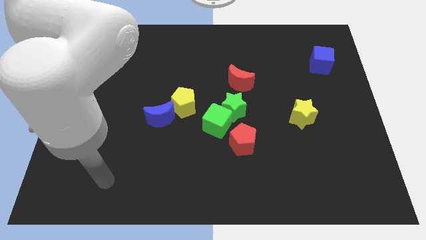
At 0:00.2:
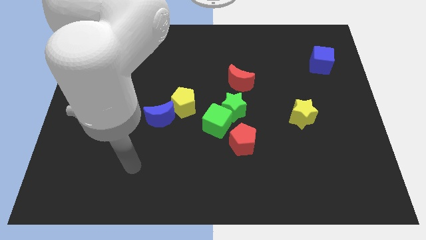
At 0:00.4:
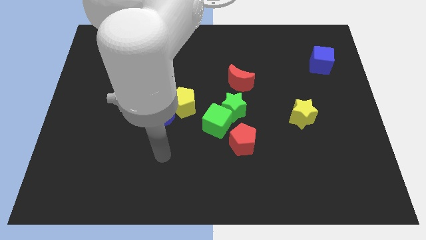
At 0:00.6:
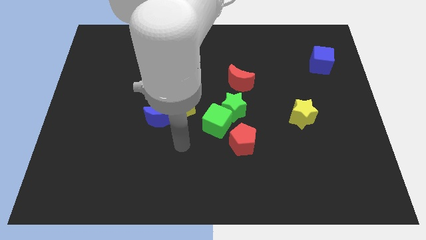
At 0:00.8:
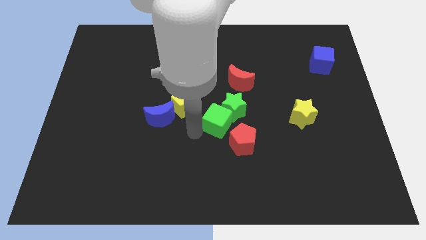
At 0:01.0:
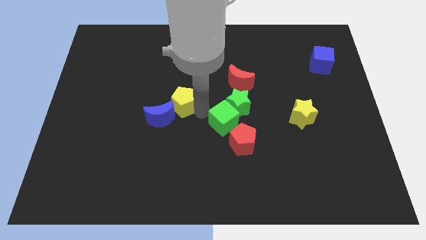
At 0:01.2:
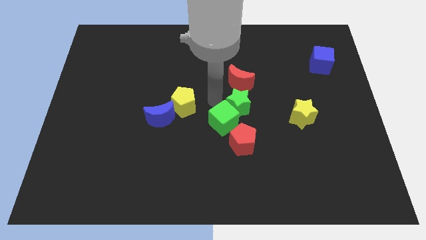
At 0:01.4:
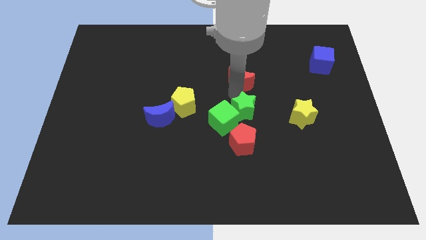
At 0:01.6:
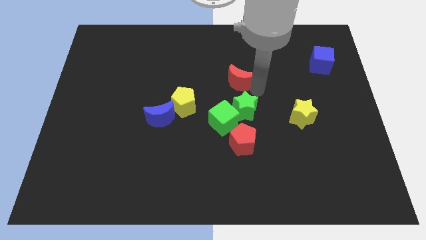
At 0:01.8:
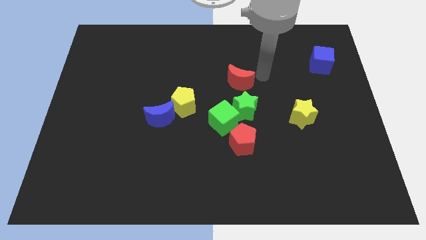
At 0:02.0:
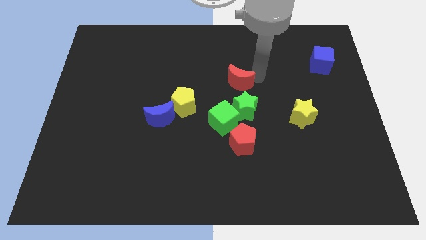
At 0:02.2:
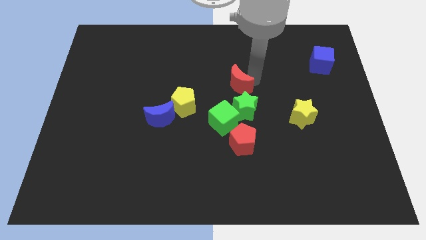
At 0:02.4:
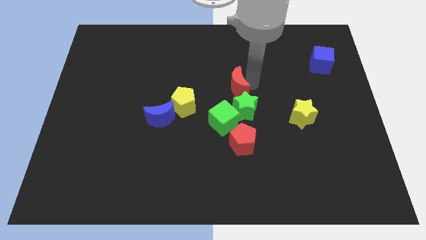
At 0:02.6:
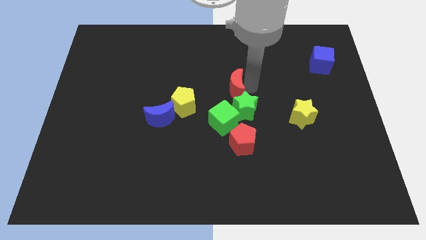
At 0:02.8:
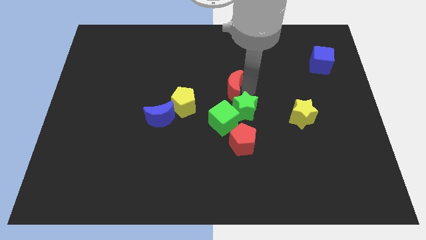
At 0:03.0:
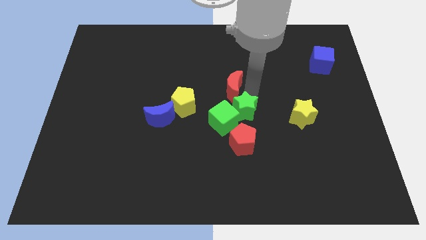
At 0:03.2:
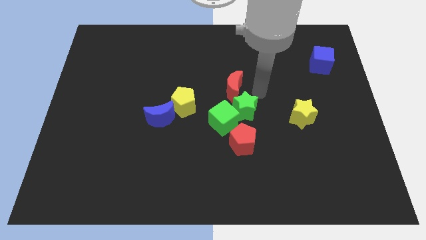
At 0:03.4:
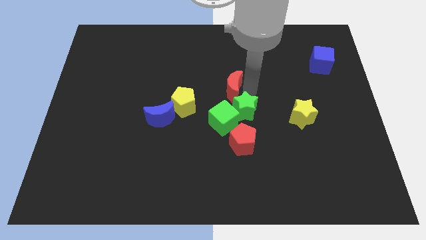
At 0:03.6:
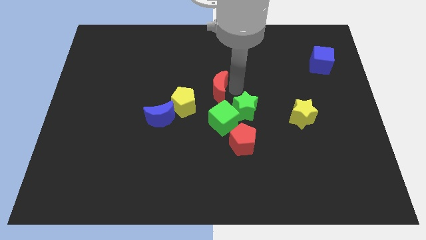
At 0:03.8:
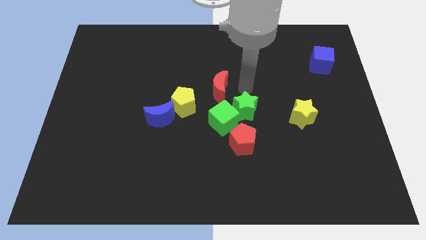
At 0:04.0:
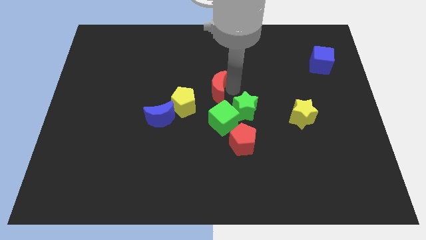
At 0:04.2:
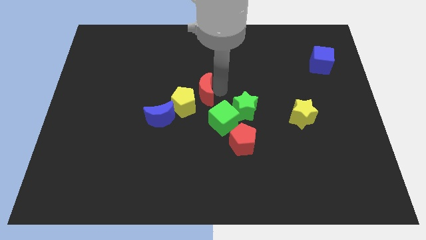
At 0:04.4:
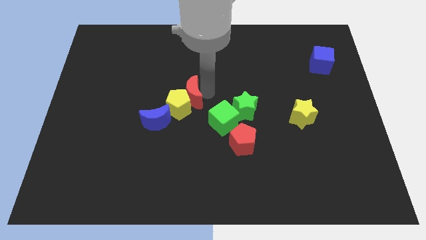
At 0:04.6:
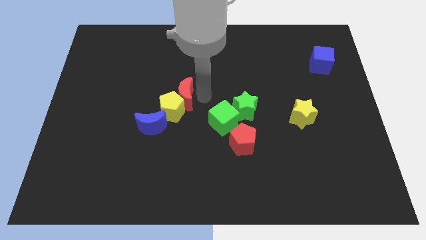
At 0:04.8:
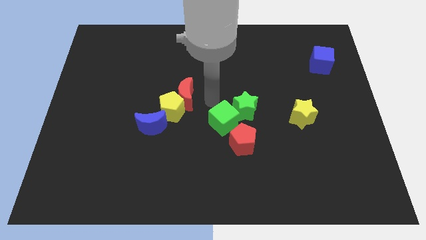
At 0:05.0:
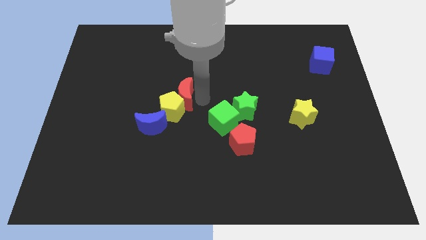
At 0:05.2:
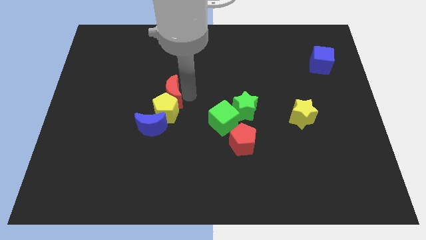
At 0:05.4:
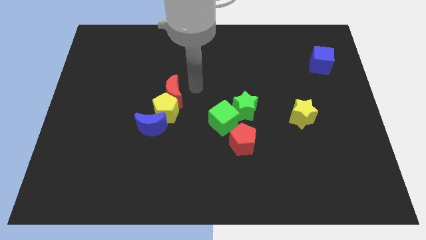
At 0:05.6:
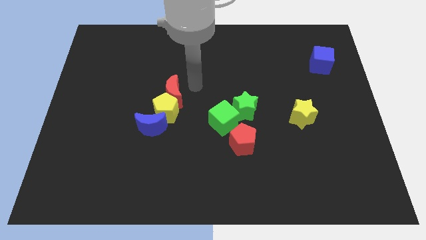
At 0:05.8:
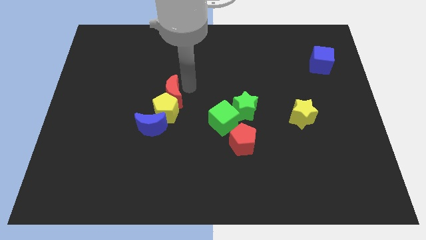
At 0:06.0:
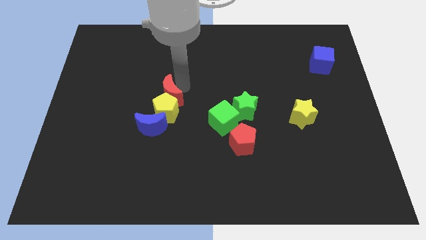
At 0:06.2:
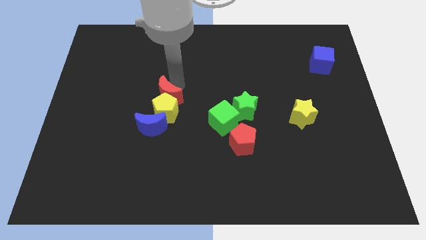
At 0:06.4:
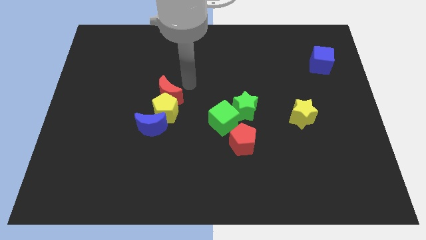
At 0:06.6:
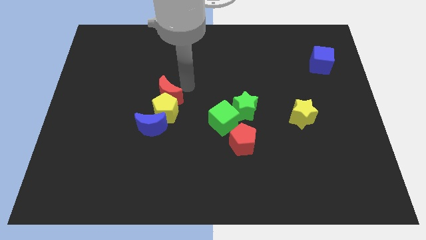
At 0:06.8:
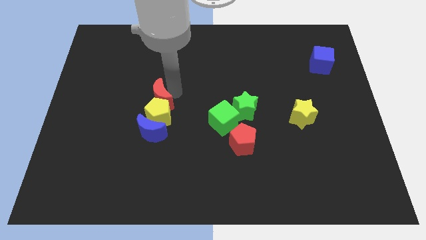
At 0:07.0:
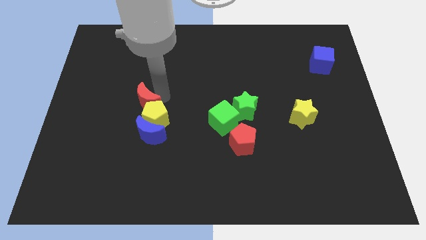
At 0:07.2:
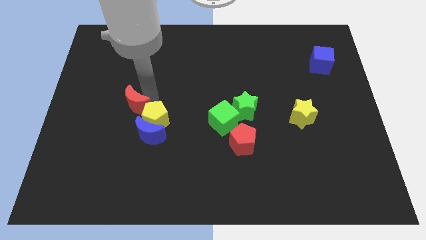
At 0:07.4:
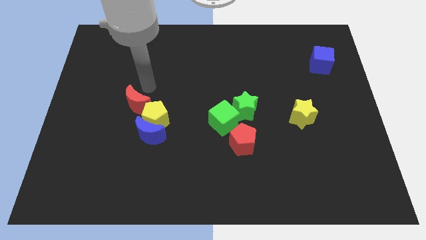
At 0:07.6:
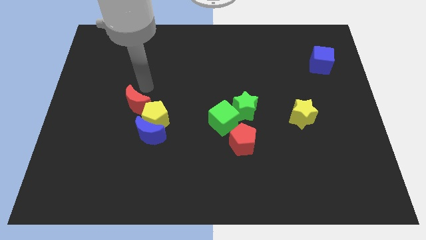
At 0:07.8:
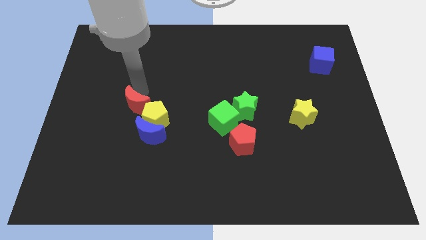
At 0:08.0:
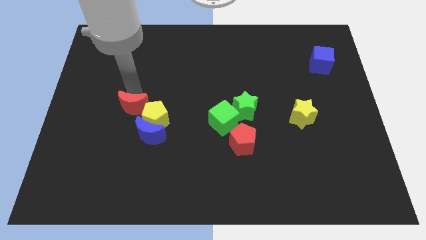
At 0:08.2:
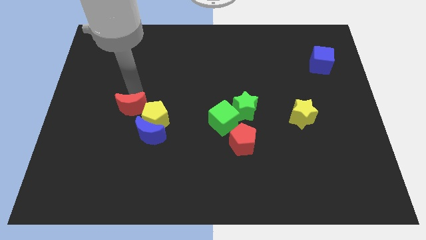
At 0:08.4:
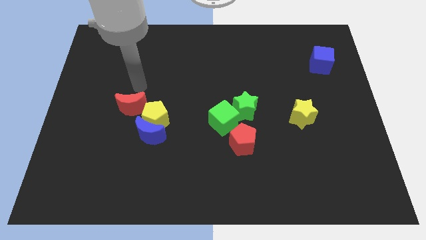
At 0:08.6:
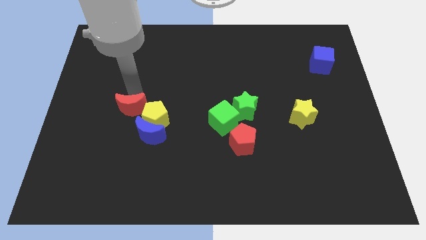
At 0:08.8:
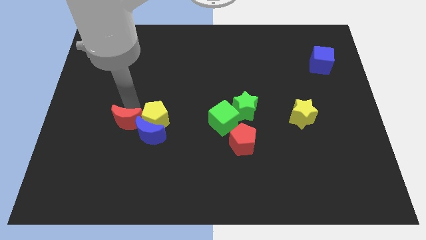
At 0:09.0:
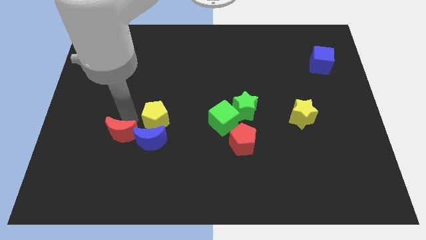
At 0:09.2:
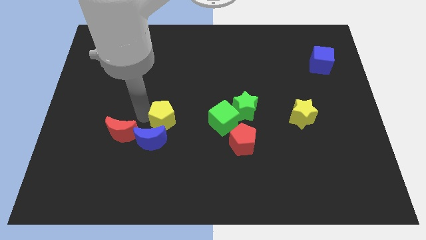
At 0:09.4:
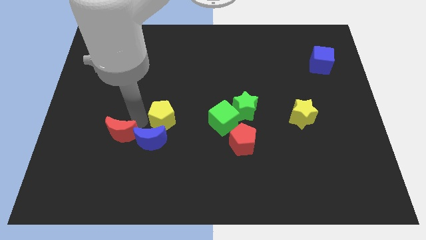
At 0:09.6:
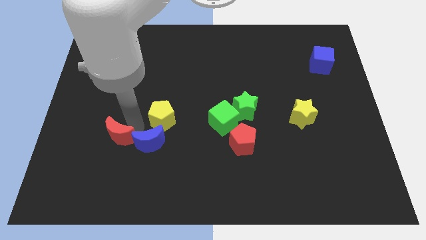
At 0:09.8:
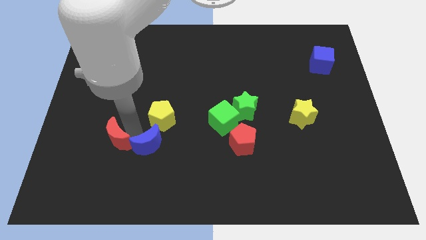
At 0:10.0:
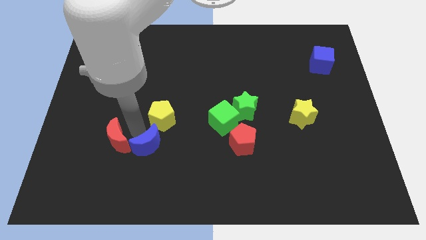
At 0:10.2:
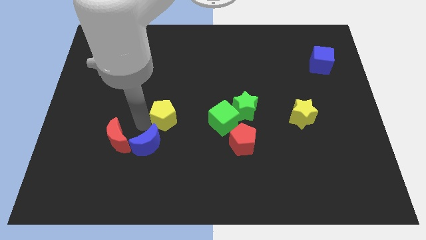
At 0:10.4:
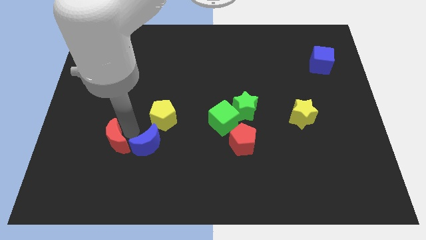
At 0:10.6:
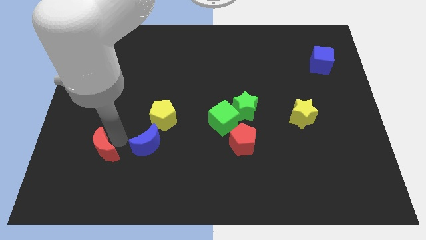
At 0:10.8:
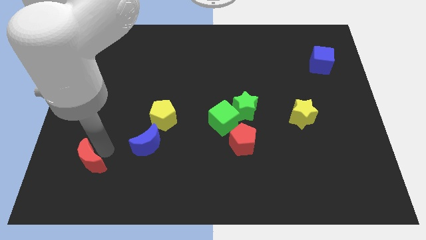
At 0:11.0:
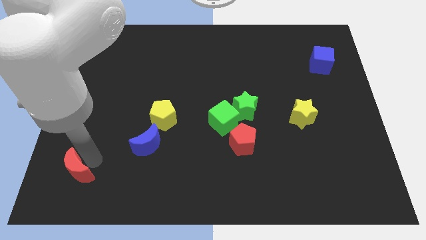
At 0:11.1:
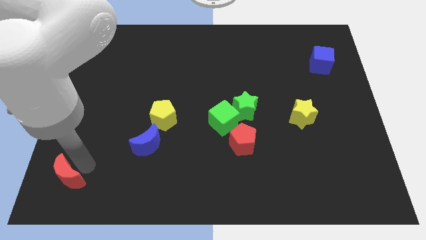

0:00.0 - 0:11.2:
put the red moon to the lower left corner
